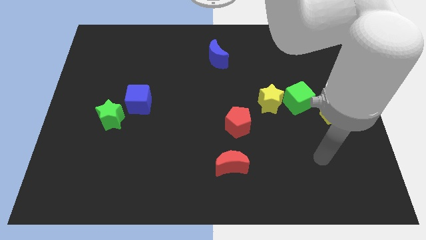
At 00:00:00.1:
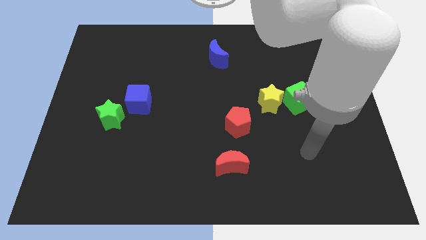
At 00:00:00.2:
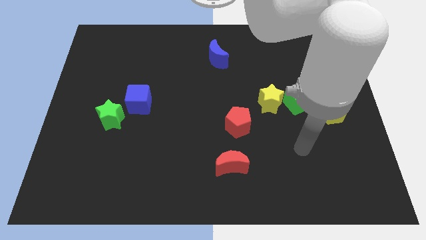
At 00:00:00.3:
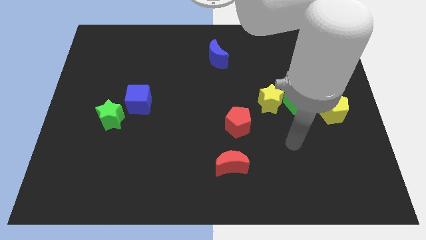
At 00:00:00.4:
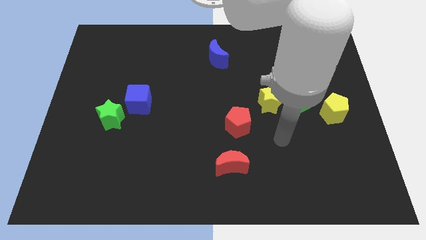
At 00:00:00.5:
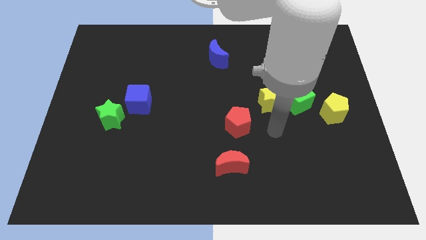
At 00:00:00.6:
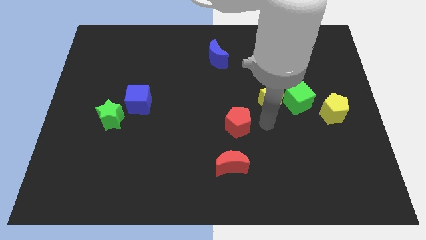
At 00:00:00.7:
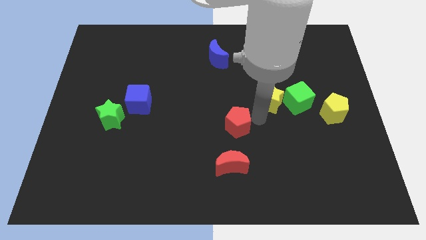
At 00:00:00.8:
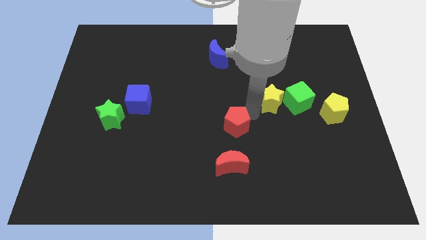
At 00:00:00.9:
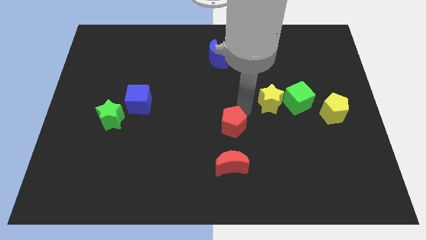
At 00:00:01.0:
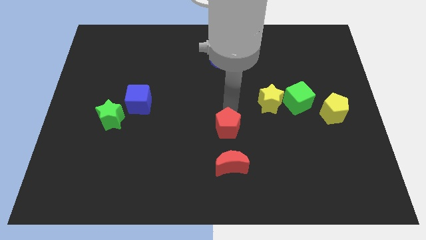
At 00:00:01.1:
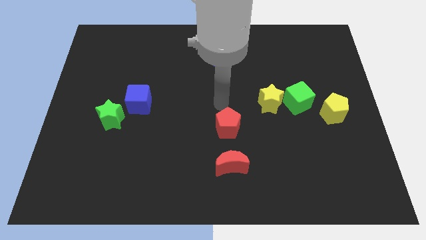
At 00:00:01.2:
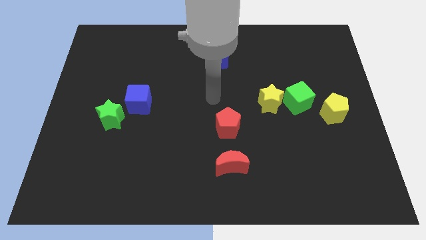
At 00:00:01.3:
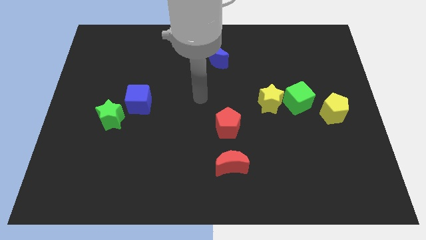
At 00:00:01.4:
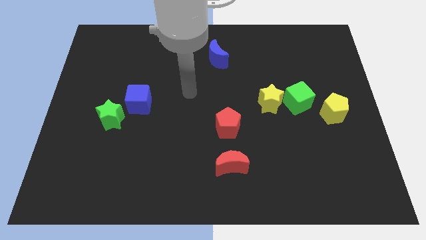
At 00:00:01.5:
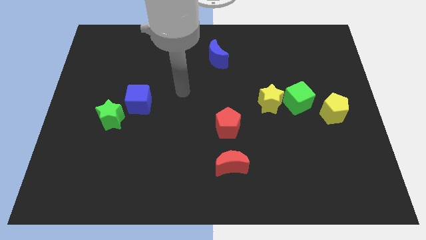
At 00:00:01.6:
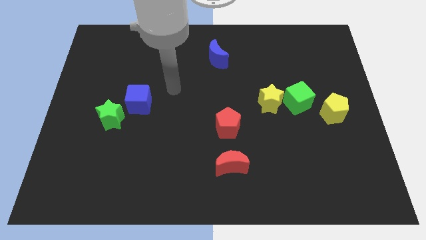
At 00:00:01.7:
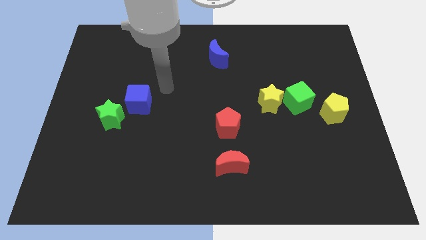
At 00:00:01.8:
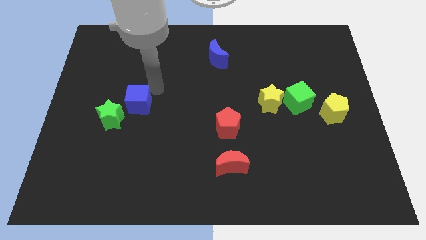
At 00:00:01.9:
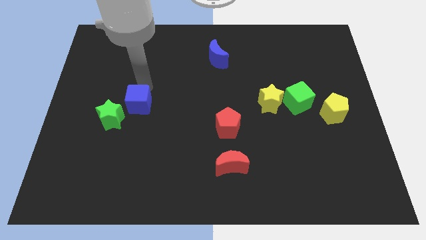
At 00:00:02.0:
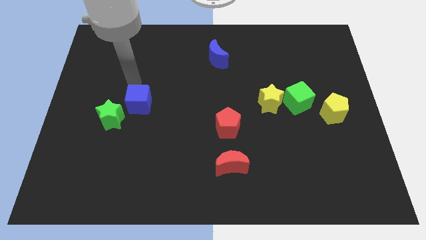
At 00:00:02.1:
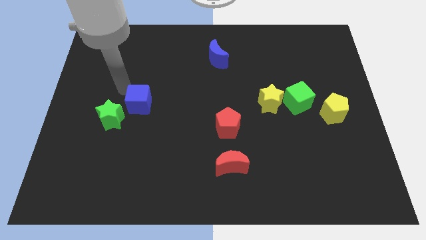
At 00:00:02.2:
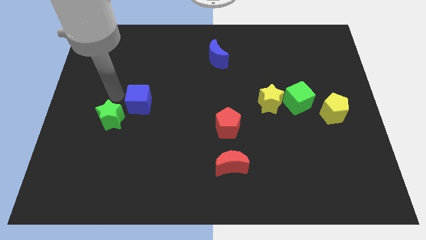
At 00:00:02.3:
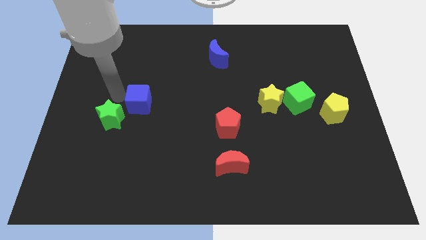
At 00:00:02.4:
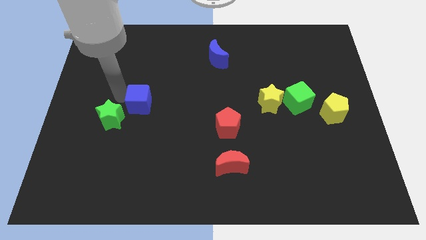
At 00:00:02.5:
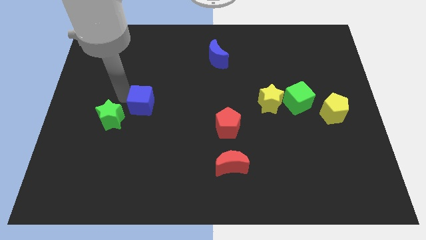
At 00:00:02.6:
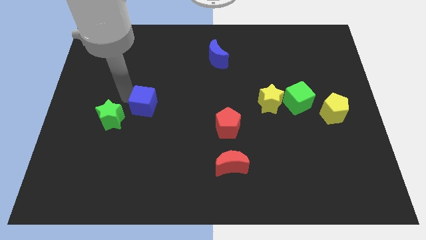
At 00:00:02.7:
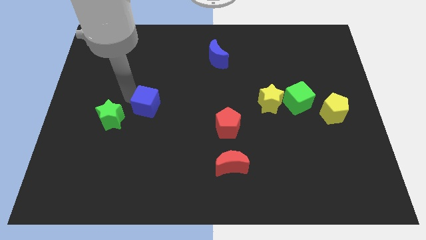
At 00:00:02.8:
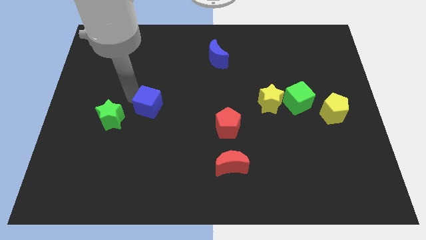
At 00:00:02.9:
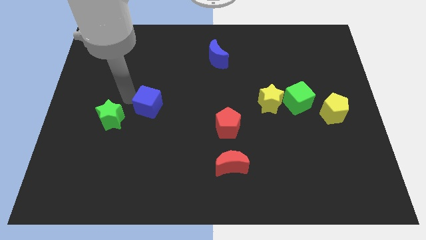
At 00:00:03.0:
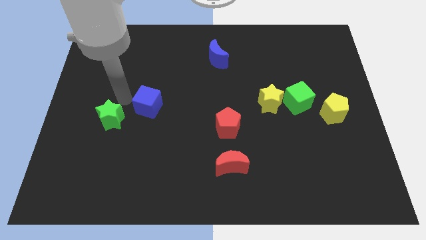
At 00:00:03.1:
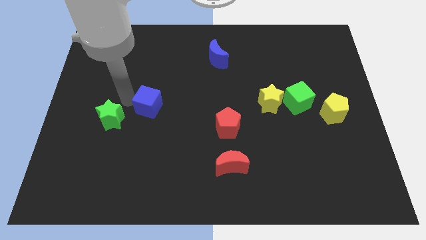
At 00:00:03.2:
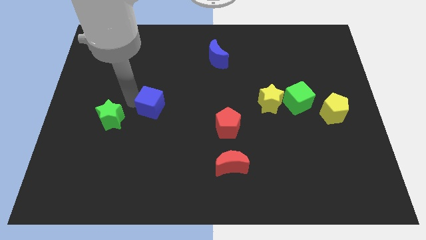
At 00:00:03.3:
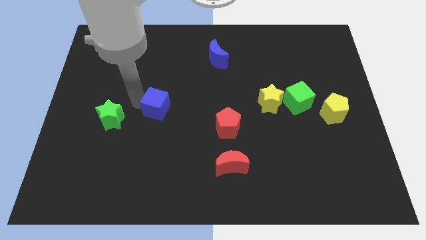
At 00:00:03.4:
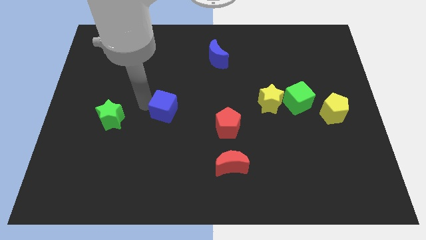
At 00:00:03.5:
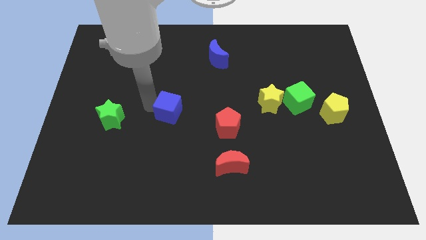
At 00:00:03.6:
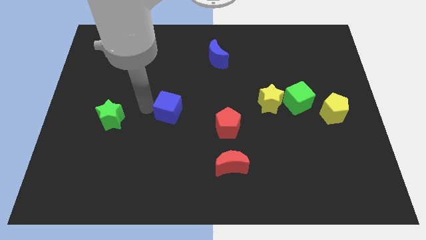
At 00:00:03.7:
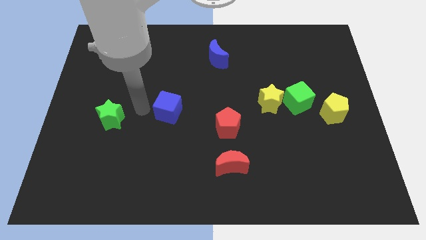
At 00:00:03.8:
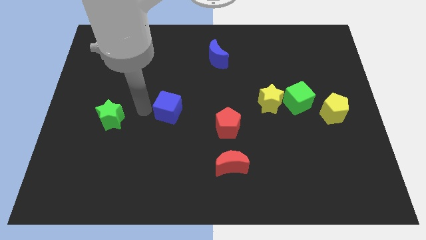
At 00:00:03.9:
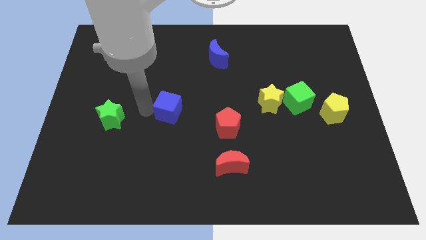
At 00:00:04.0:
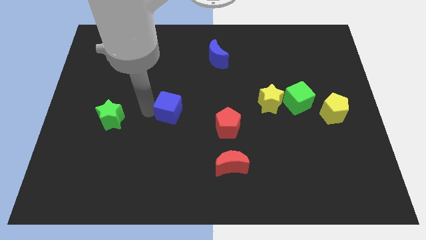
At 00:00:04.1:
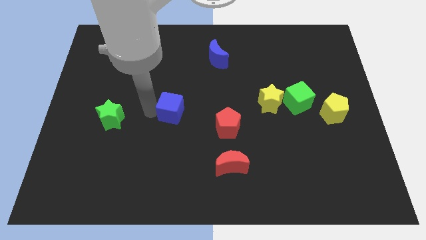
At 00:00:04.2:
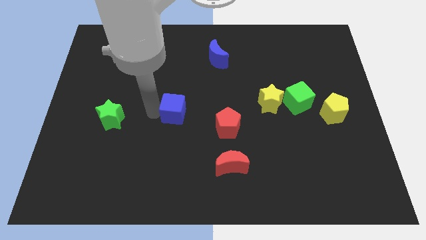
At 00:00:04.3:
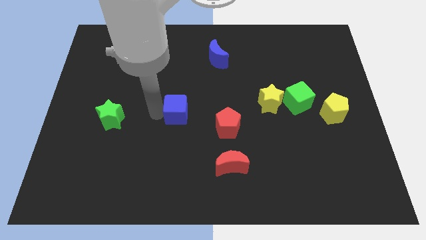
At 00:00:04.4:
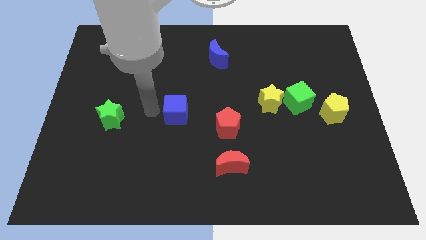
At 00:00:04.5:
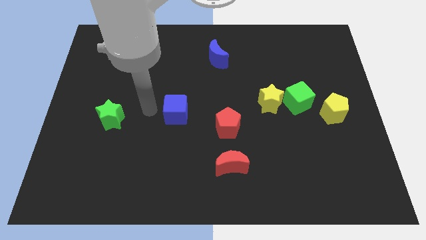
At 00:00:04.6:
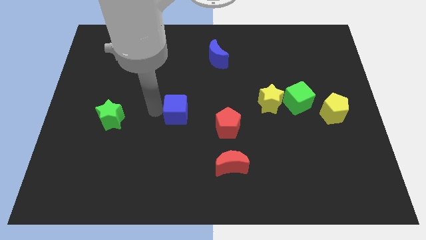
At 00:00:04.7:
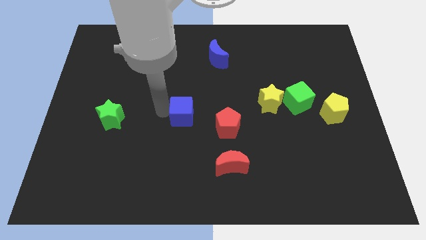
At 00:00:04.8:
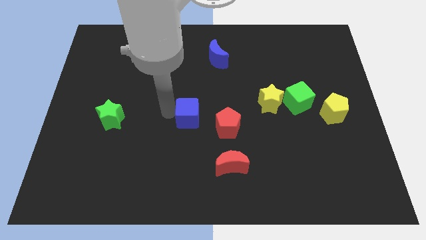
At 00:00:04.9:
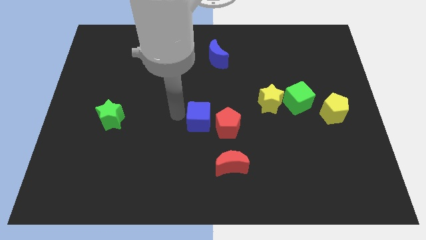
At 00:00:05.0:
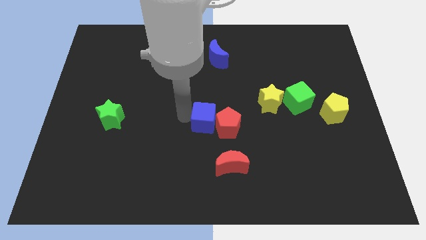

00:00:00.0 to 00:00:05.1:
put the blue cube to the red pentagon
